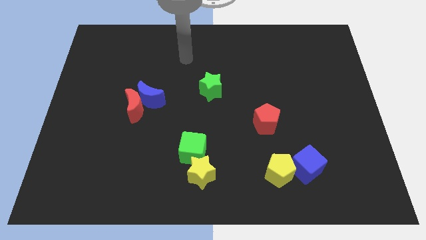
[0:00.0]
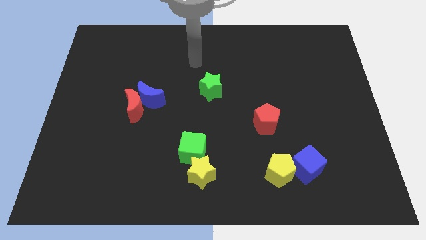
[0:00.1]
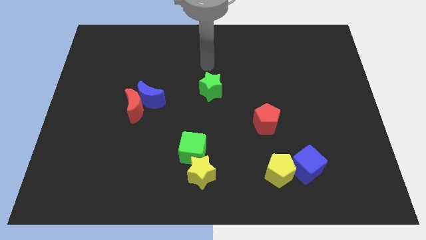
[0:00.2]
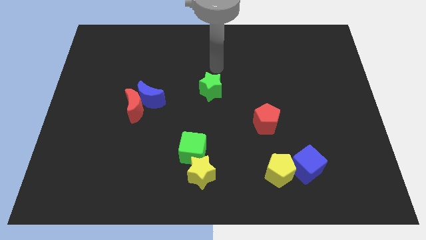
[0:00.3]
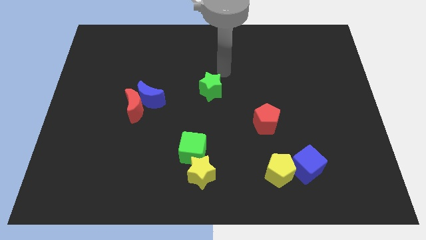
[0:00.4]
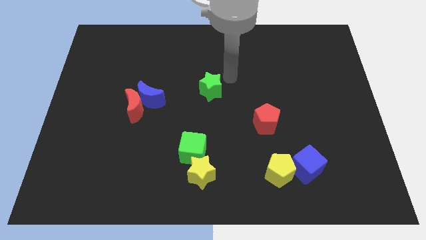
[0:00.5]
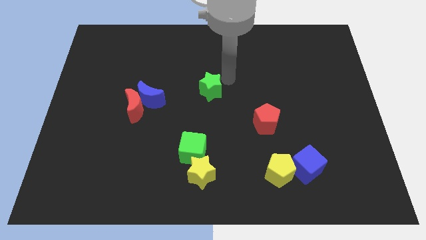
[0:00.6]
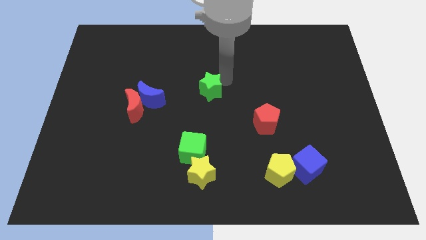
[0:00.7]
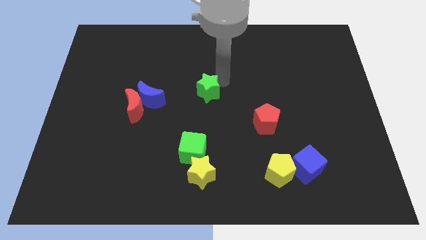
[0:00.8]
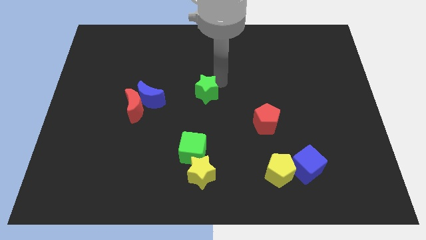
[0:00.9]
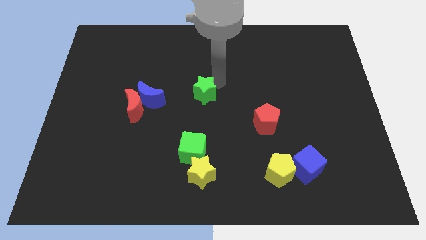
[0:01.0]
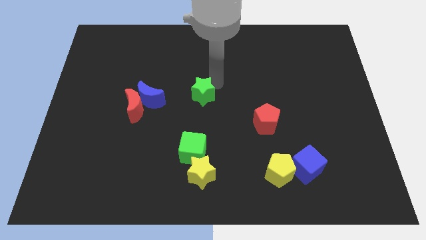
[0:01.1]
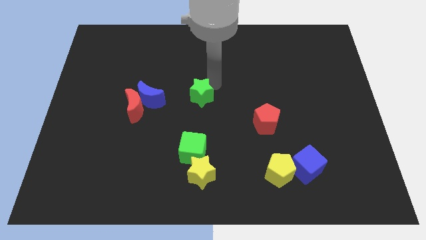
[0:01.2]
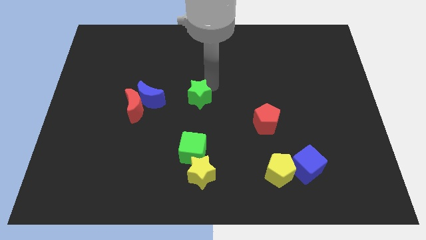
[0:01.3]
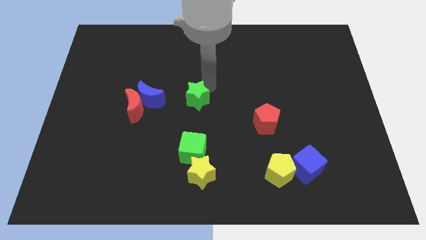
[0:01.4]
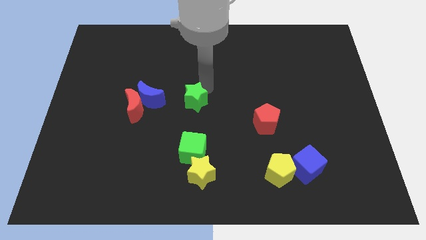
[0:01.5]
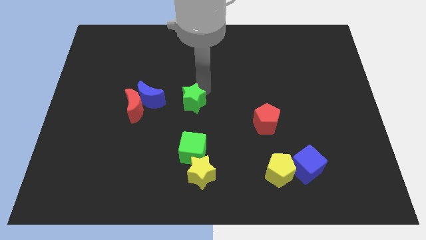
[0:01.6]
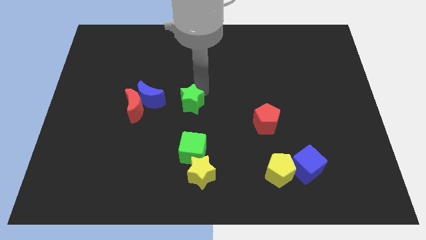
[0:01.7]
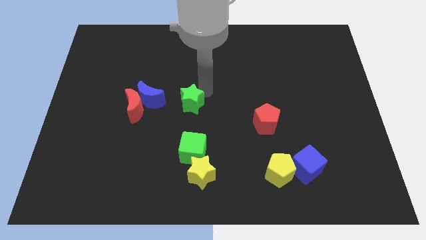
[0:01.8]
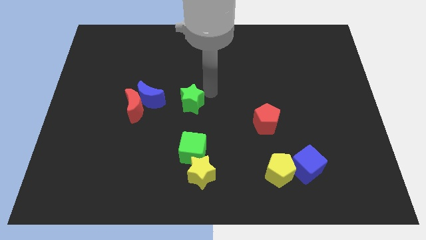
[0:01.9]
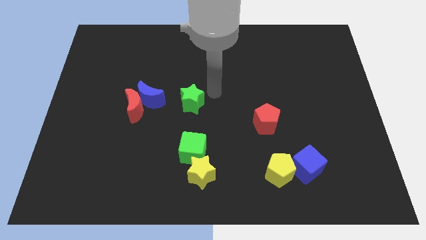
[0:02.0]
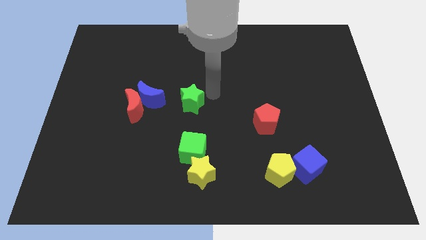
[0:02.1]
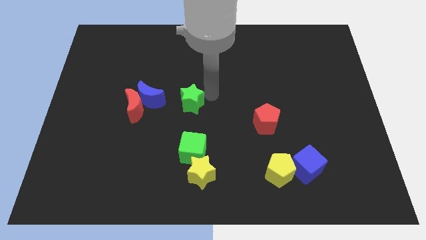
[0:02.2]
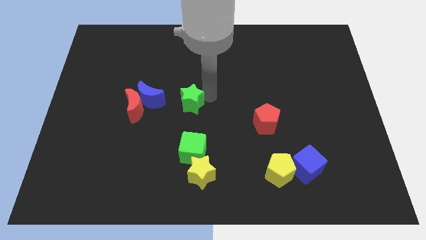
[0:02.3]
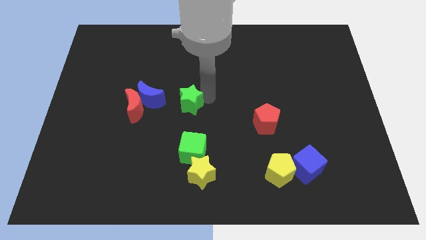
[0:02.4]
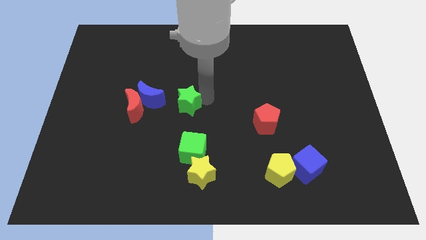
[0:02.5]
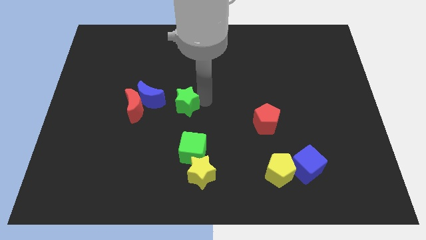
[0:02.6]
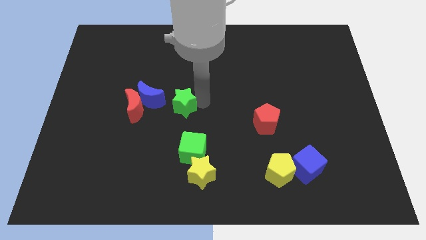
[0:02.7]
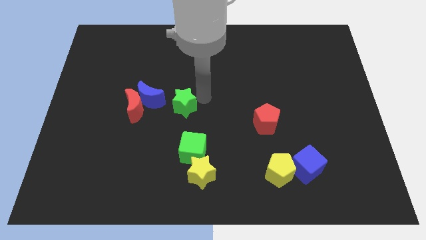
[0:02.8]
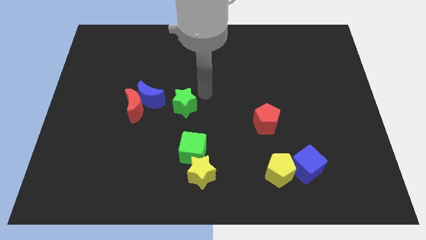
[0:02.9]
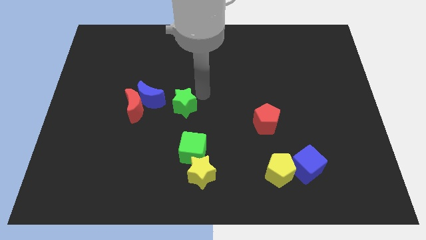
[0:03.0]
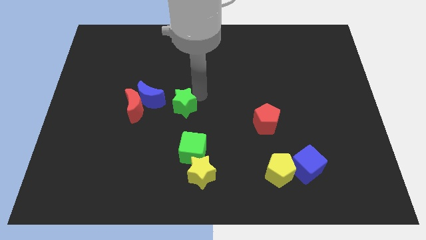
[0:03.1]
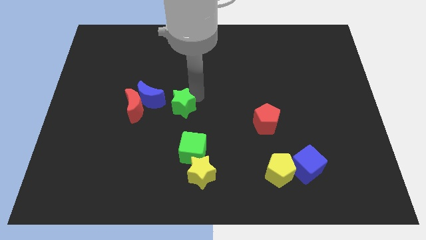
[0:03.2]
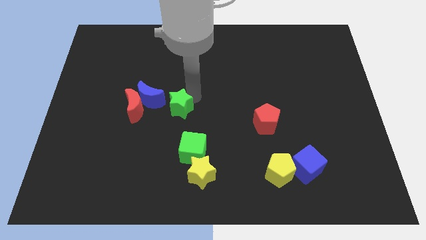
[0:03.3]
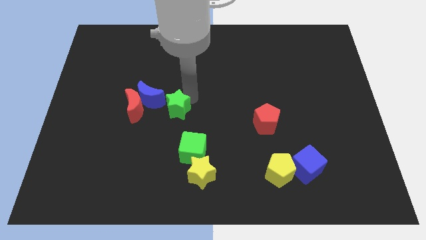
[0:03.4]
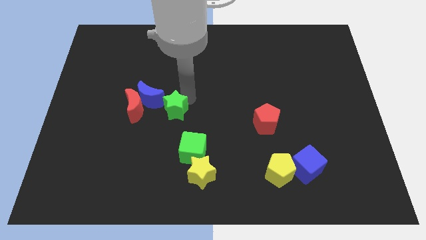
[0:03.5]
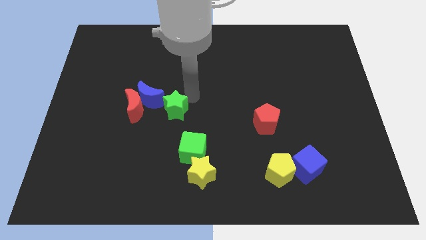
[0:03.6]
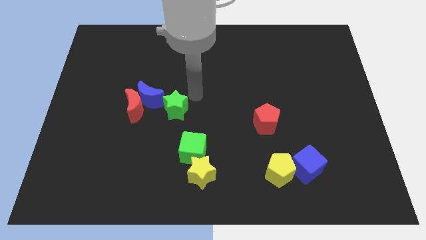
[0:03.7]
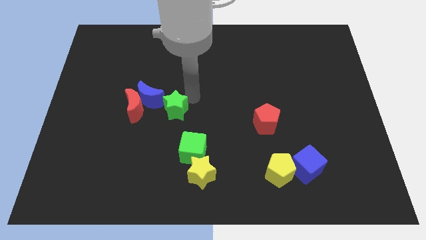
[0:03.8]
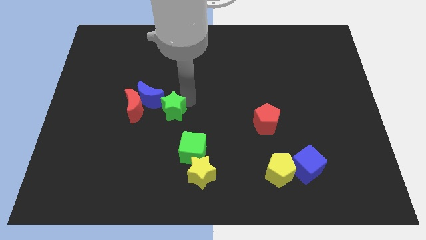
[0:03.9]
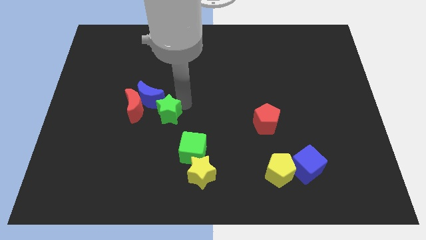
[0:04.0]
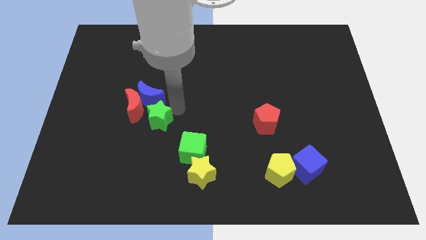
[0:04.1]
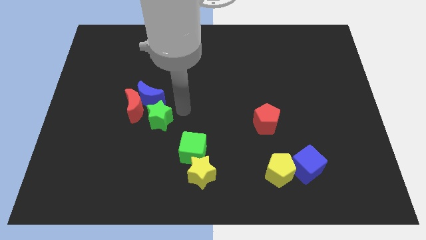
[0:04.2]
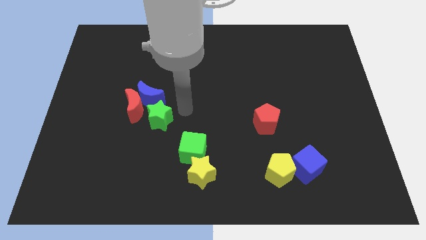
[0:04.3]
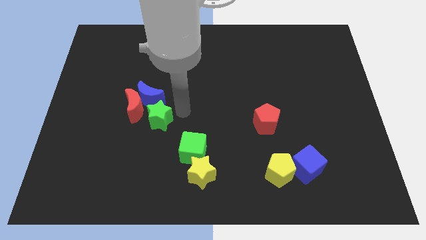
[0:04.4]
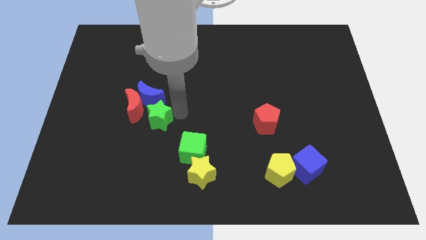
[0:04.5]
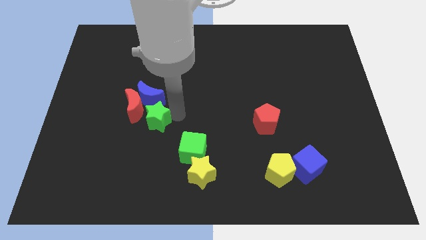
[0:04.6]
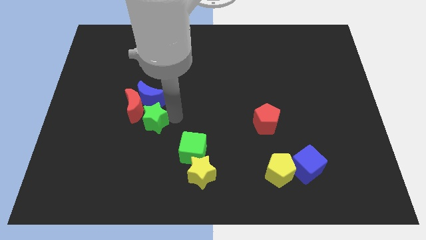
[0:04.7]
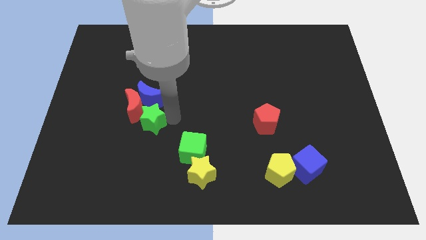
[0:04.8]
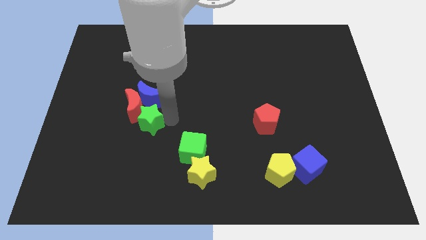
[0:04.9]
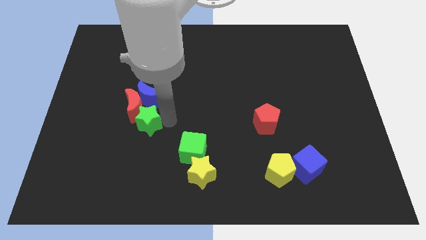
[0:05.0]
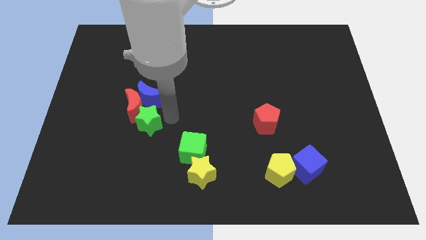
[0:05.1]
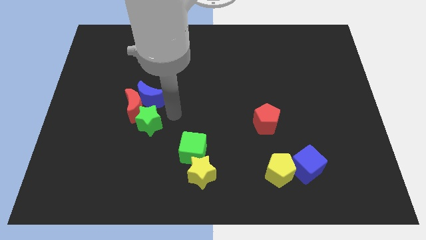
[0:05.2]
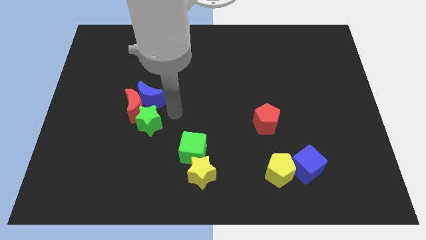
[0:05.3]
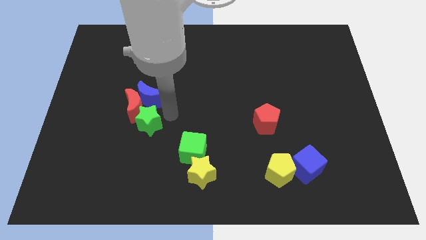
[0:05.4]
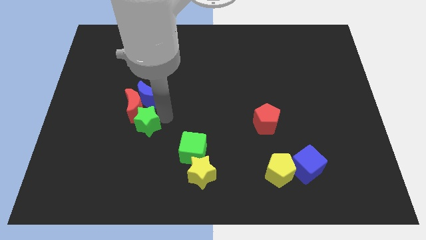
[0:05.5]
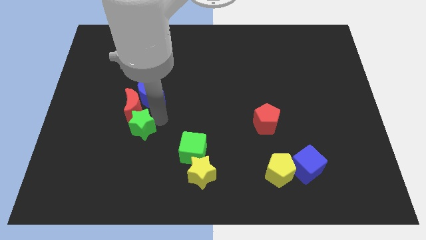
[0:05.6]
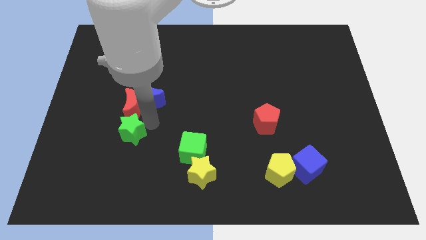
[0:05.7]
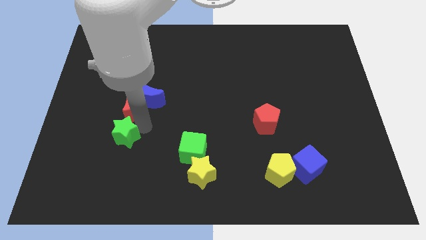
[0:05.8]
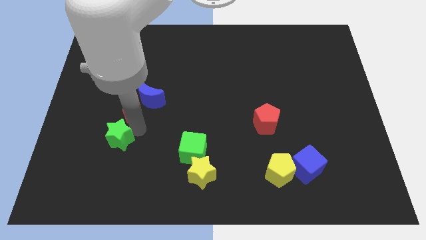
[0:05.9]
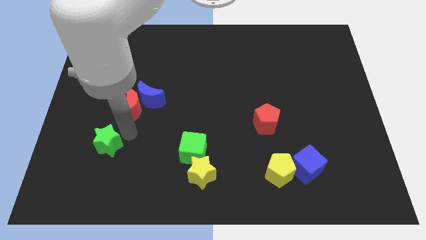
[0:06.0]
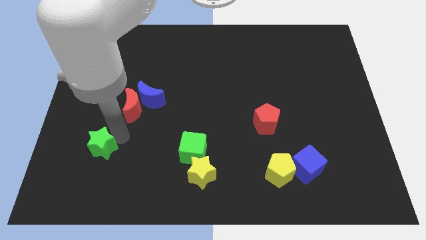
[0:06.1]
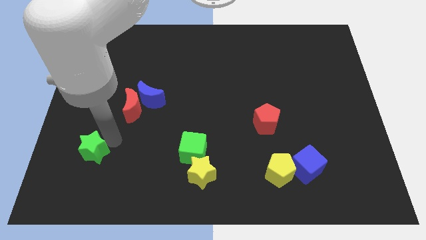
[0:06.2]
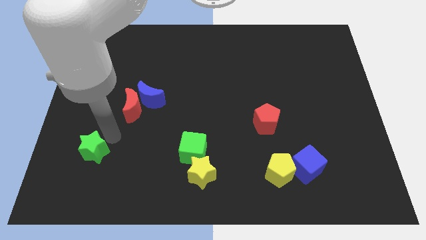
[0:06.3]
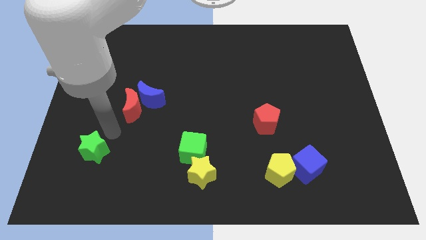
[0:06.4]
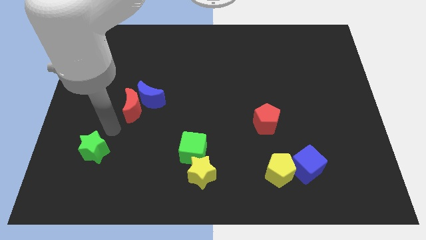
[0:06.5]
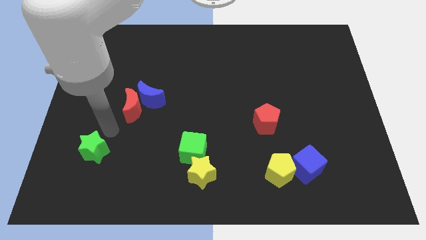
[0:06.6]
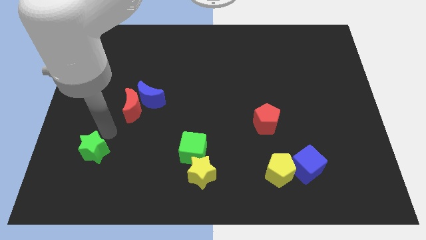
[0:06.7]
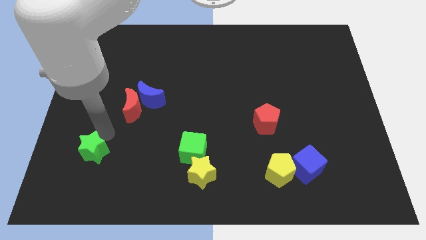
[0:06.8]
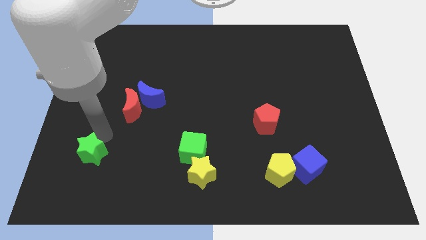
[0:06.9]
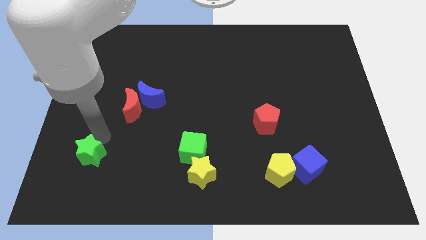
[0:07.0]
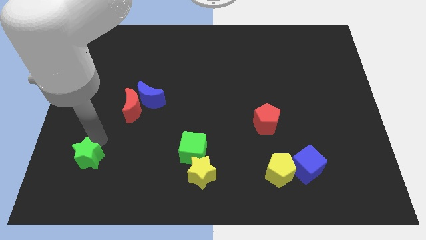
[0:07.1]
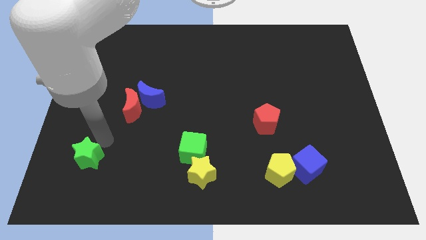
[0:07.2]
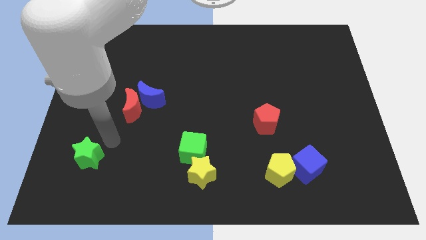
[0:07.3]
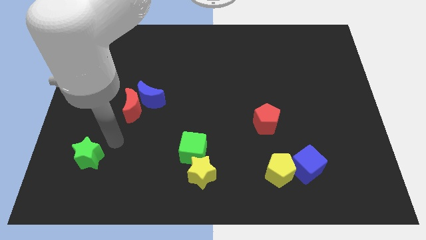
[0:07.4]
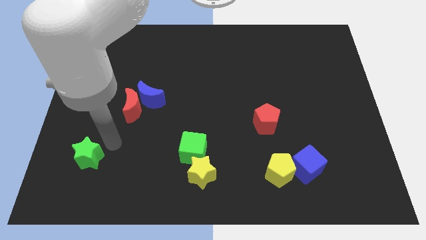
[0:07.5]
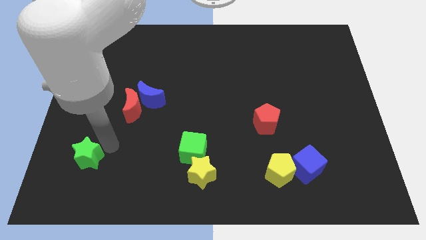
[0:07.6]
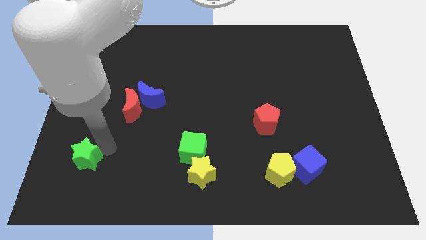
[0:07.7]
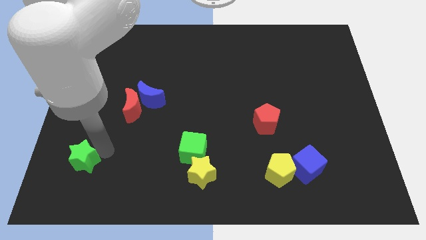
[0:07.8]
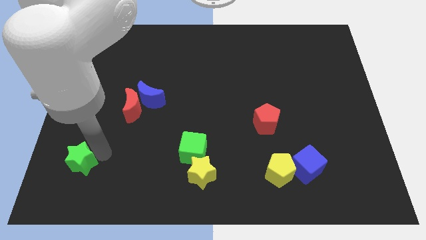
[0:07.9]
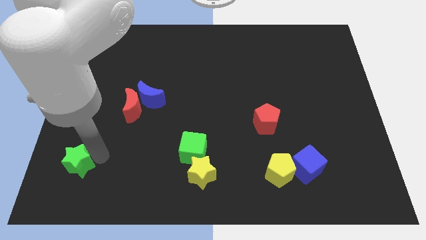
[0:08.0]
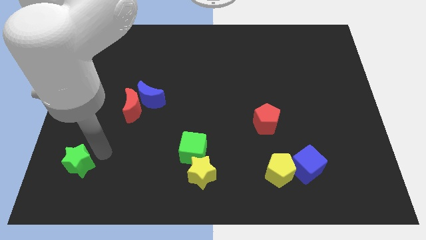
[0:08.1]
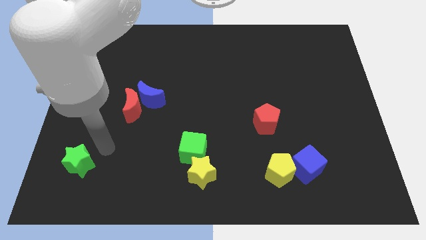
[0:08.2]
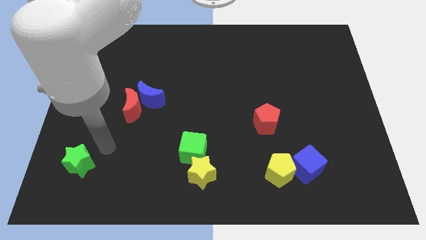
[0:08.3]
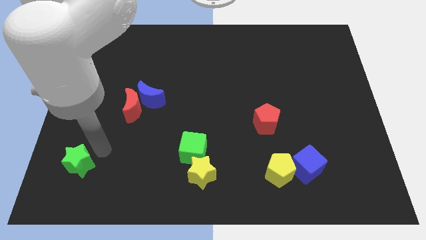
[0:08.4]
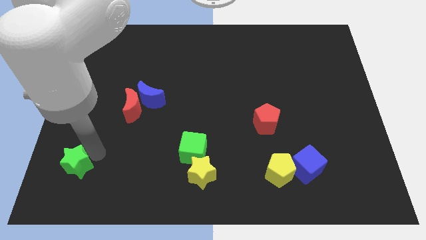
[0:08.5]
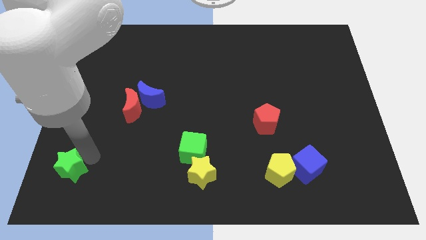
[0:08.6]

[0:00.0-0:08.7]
push the green star to the bottom left of the board
